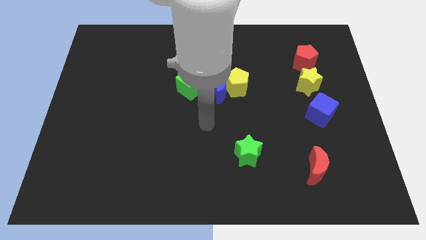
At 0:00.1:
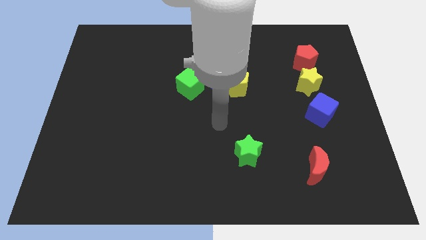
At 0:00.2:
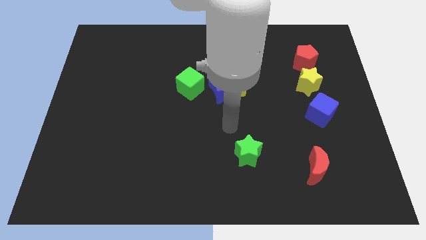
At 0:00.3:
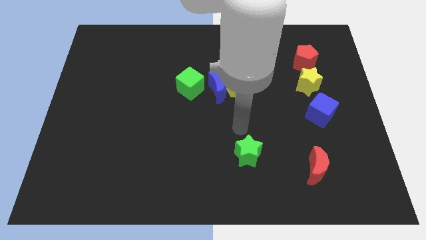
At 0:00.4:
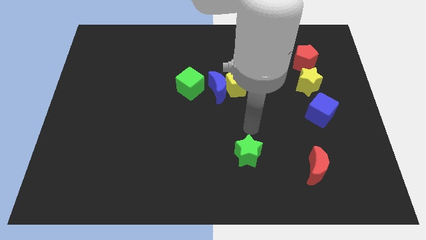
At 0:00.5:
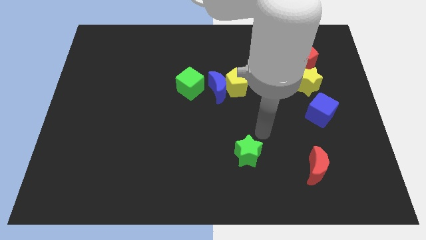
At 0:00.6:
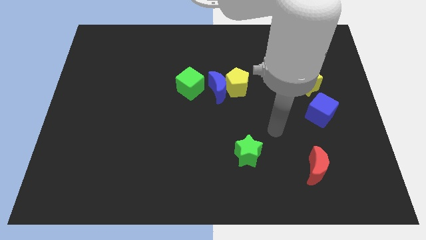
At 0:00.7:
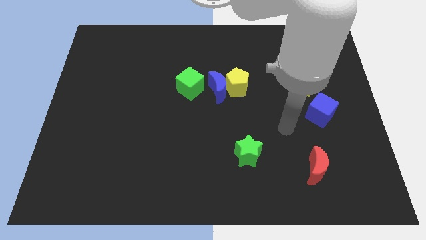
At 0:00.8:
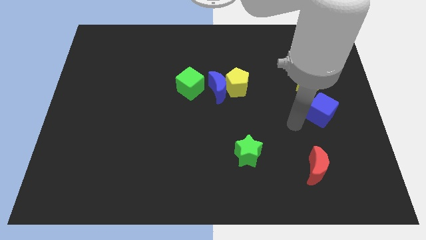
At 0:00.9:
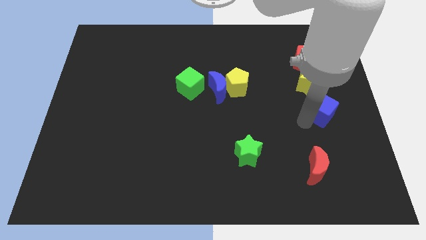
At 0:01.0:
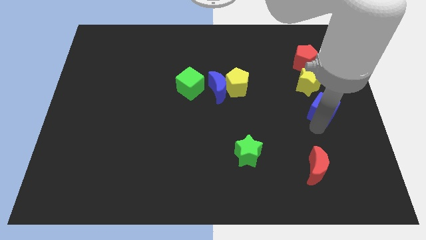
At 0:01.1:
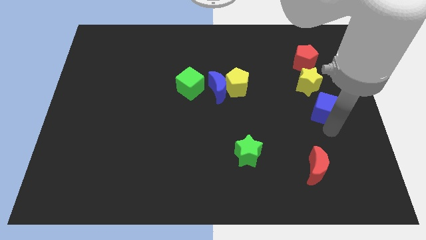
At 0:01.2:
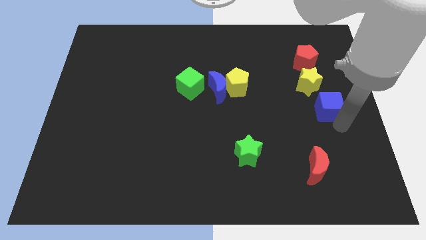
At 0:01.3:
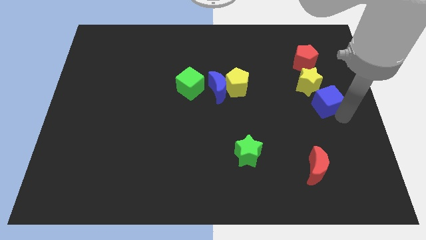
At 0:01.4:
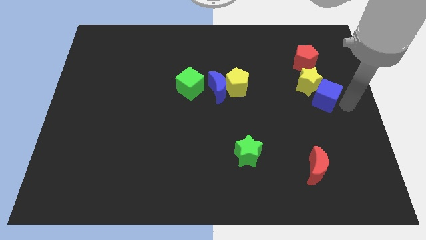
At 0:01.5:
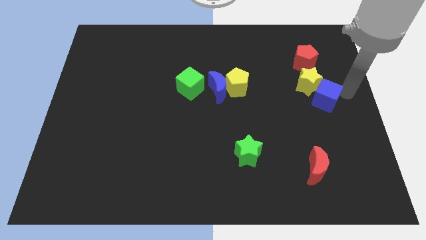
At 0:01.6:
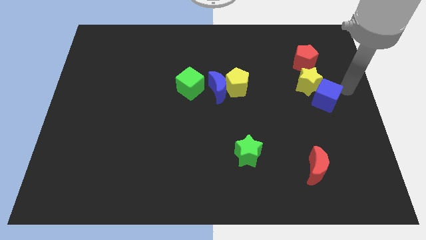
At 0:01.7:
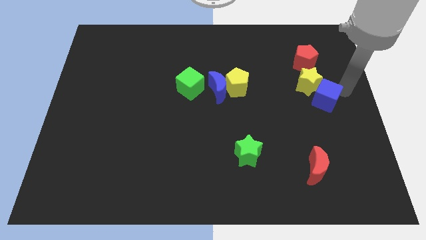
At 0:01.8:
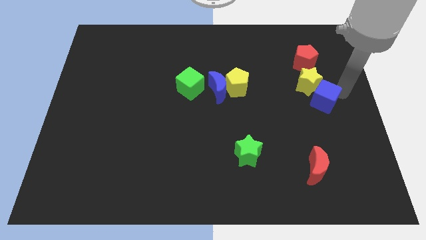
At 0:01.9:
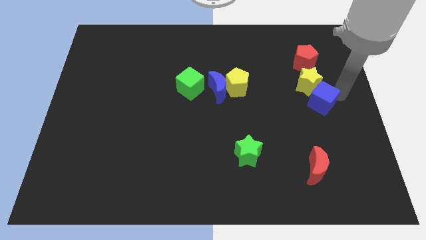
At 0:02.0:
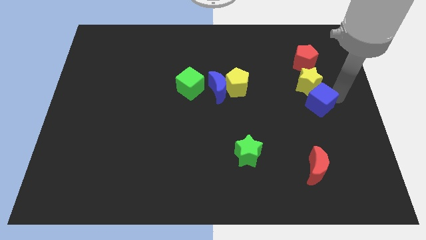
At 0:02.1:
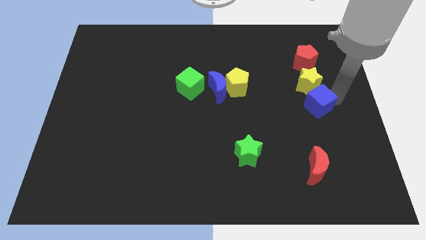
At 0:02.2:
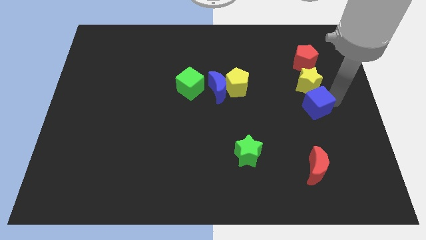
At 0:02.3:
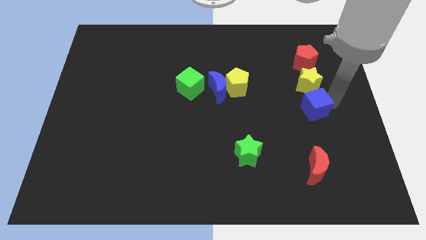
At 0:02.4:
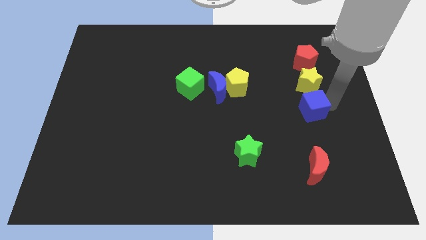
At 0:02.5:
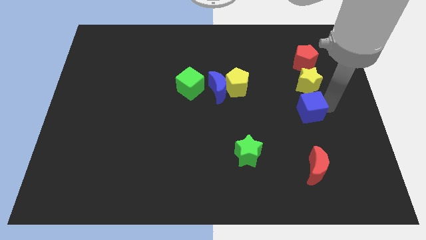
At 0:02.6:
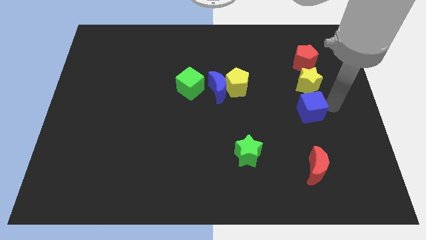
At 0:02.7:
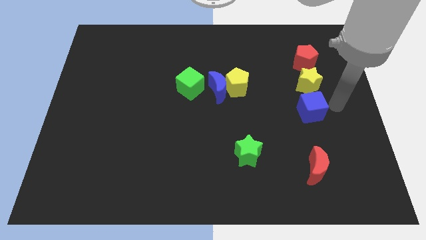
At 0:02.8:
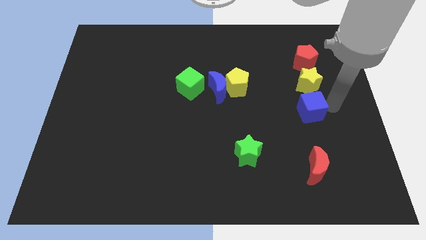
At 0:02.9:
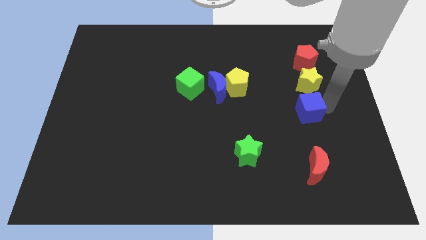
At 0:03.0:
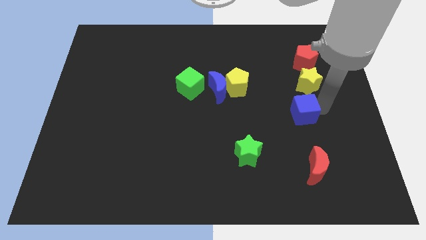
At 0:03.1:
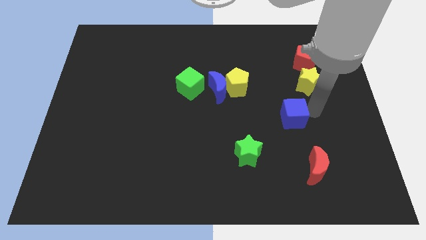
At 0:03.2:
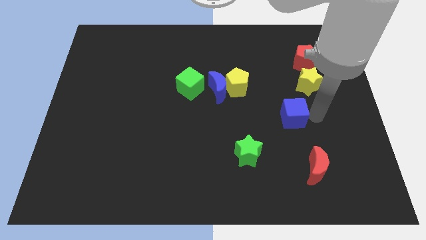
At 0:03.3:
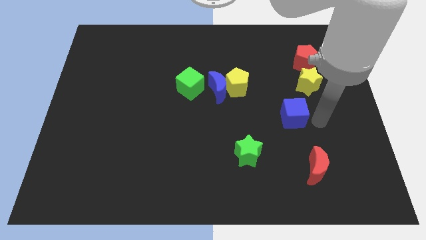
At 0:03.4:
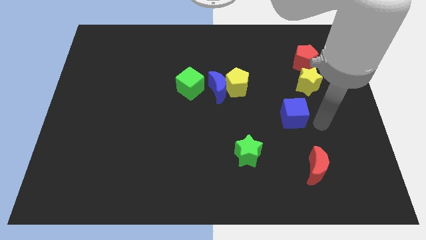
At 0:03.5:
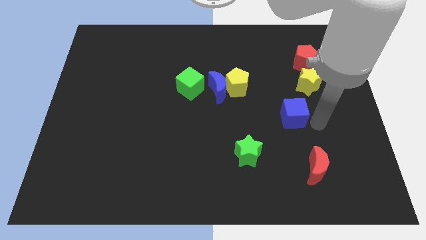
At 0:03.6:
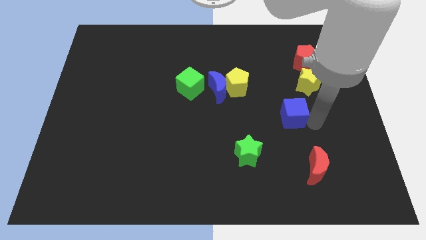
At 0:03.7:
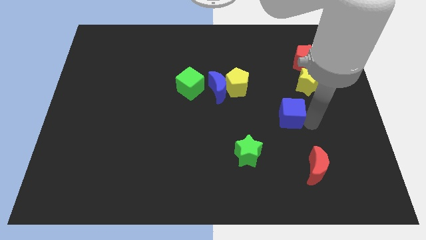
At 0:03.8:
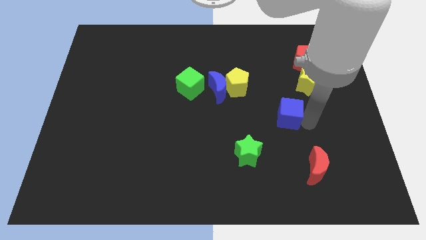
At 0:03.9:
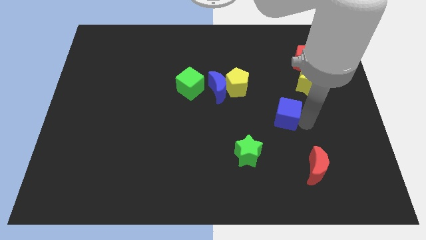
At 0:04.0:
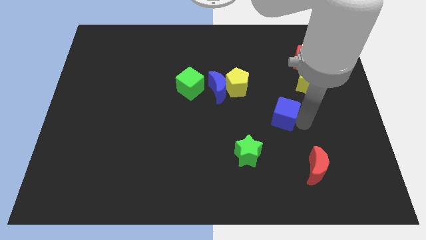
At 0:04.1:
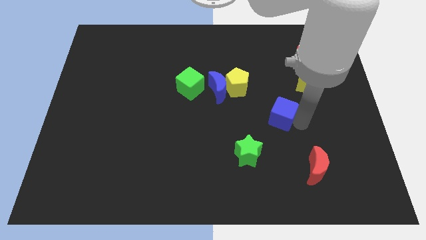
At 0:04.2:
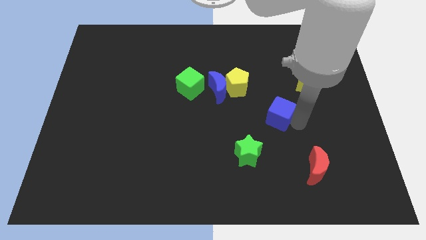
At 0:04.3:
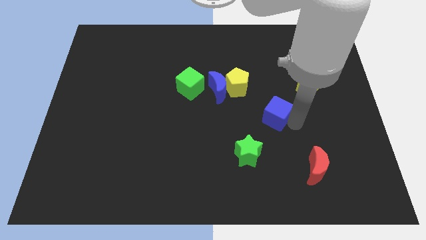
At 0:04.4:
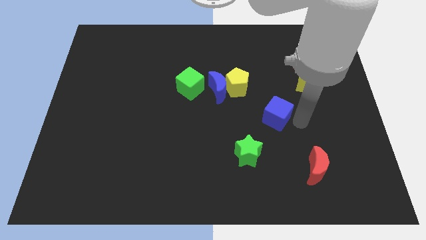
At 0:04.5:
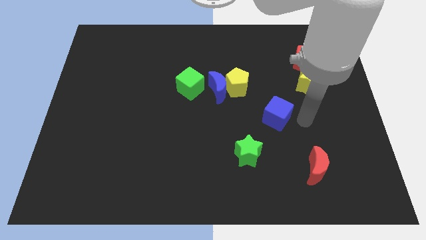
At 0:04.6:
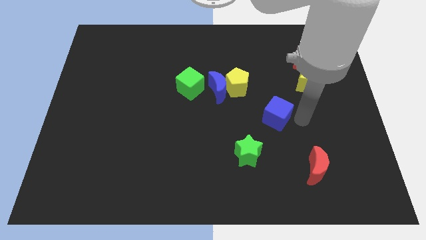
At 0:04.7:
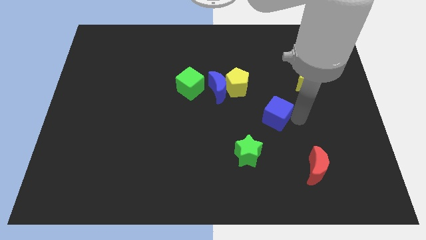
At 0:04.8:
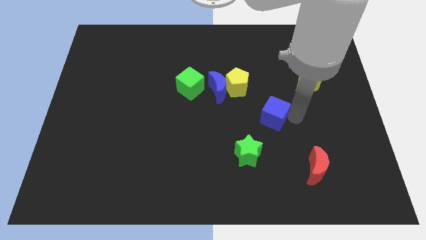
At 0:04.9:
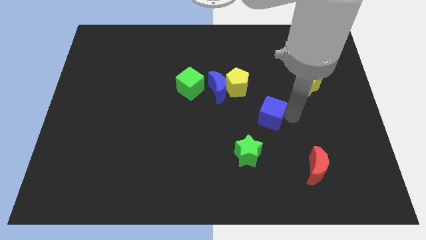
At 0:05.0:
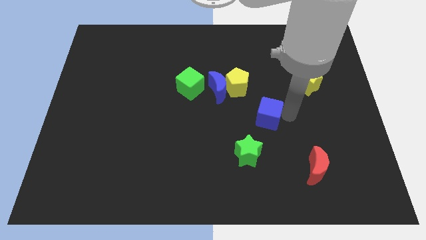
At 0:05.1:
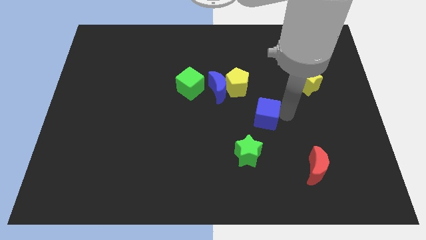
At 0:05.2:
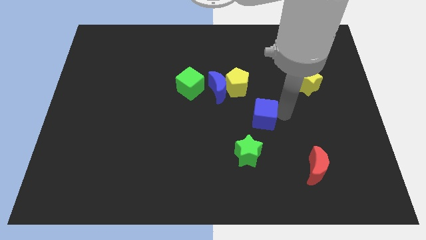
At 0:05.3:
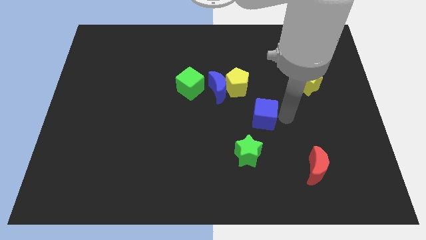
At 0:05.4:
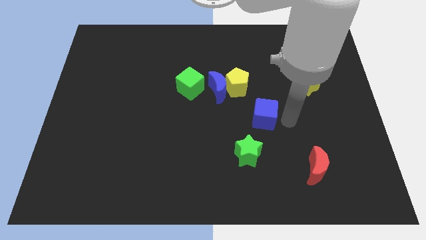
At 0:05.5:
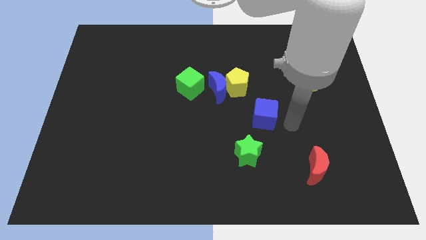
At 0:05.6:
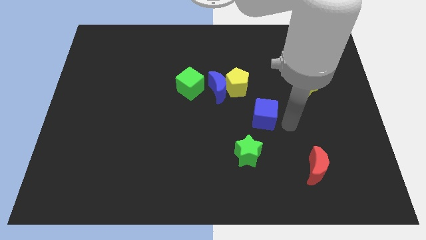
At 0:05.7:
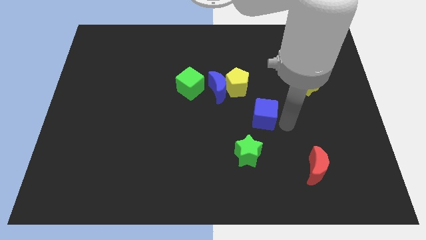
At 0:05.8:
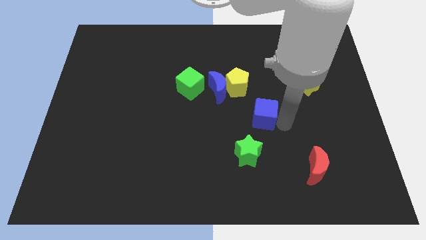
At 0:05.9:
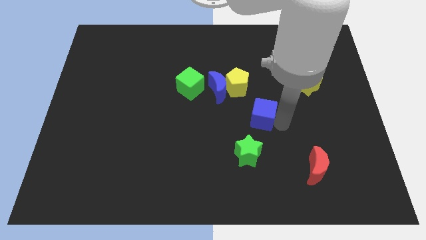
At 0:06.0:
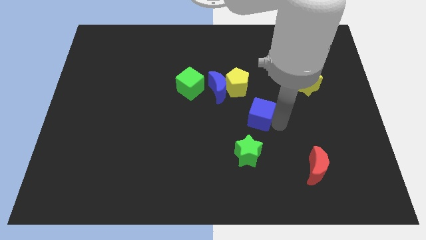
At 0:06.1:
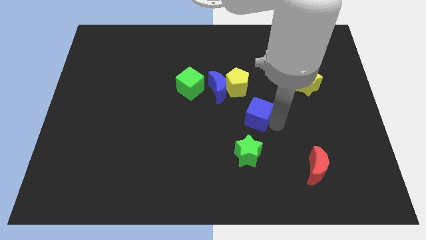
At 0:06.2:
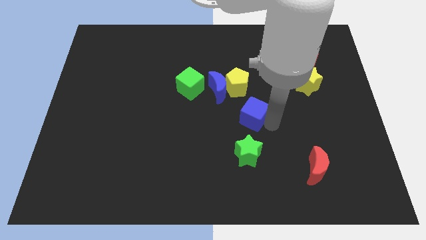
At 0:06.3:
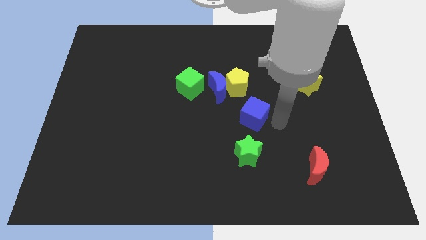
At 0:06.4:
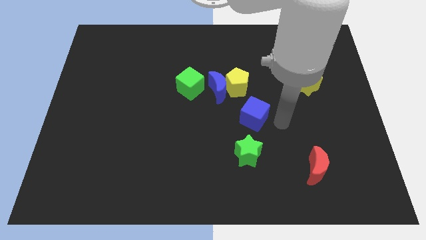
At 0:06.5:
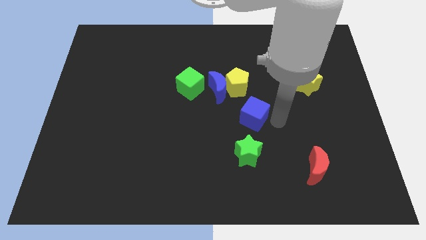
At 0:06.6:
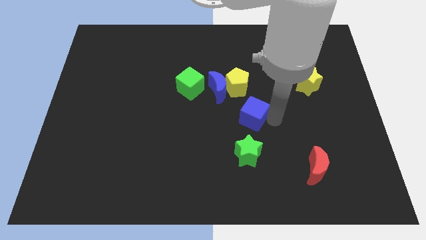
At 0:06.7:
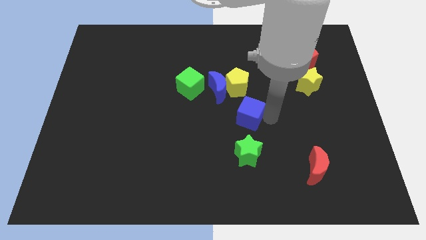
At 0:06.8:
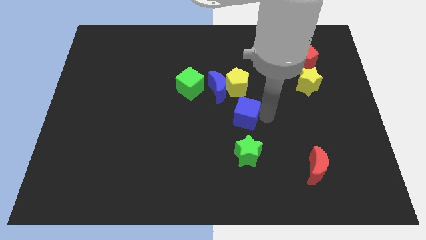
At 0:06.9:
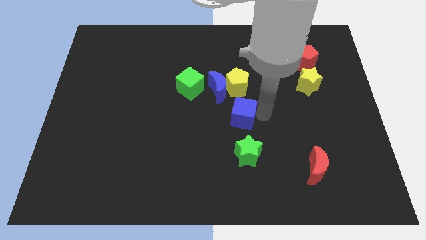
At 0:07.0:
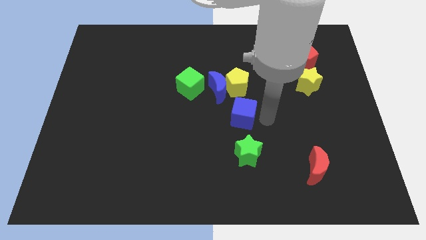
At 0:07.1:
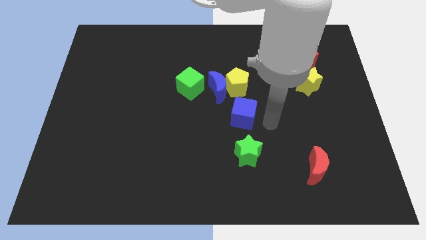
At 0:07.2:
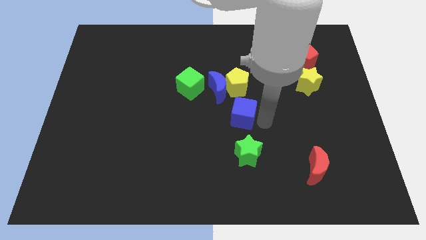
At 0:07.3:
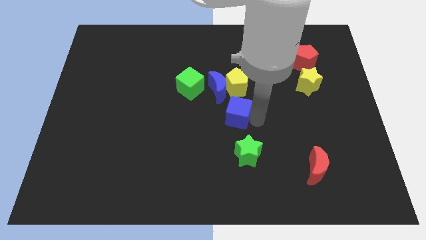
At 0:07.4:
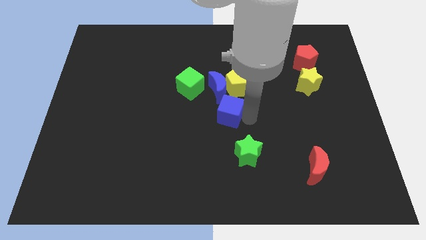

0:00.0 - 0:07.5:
push the blue cube to the left

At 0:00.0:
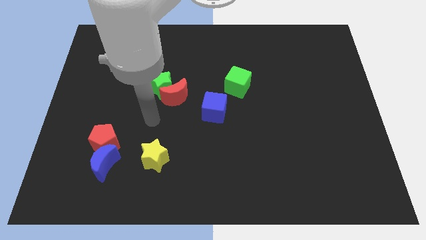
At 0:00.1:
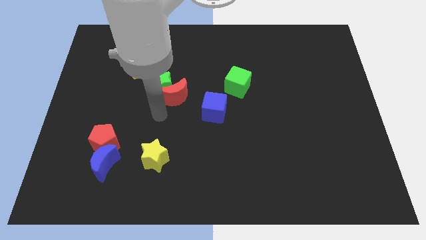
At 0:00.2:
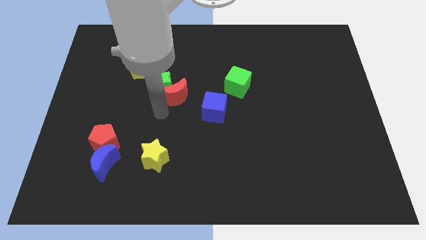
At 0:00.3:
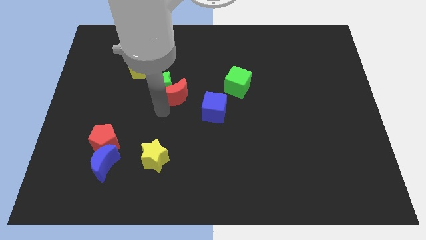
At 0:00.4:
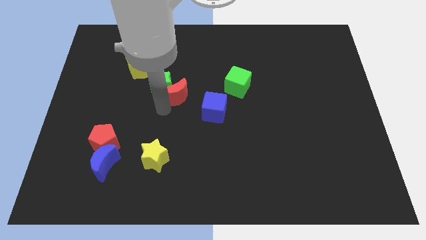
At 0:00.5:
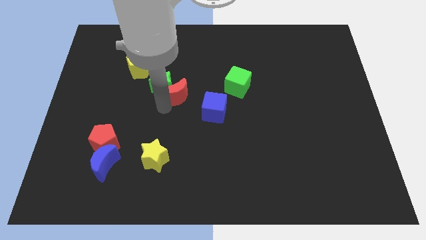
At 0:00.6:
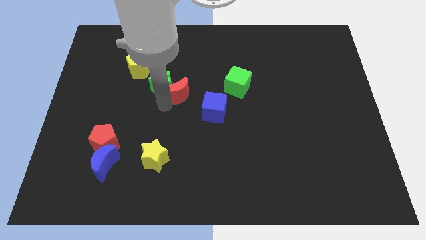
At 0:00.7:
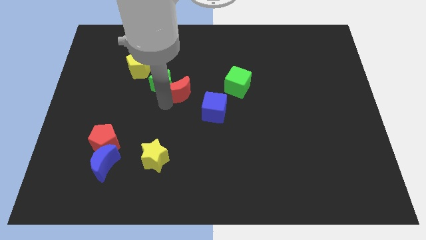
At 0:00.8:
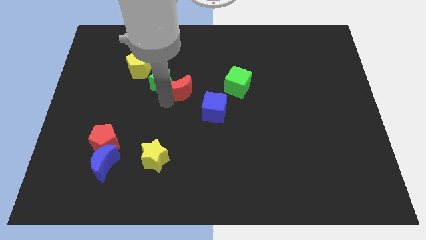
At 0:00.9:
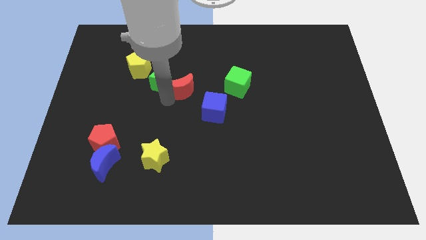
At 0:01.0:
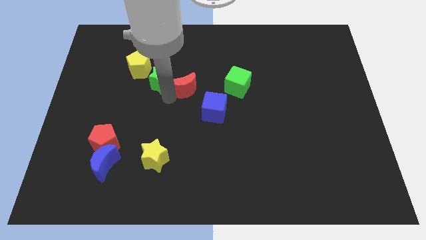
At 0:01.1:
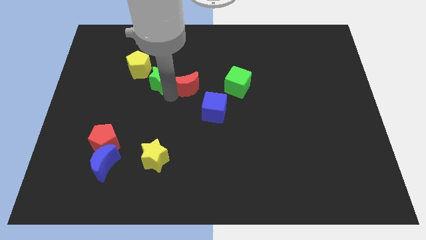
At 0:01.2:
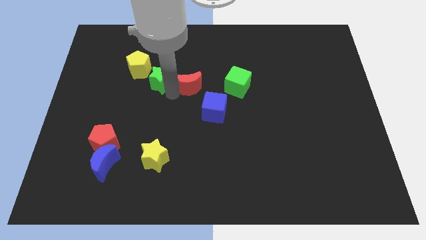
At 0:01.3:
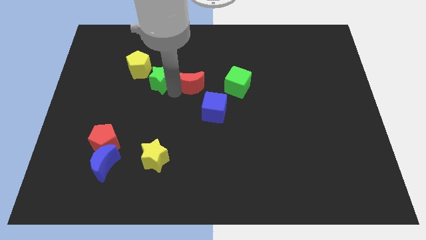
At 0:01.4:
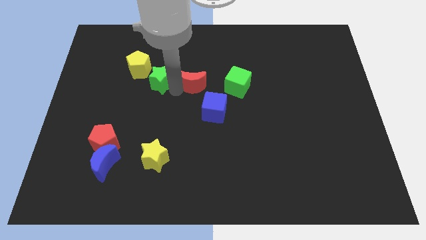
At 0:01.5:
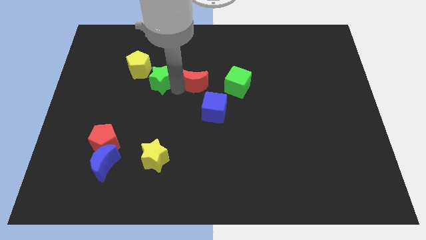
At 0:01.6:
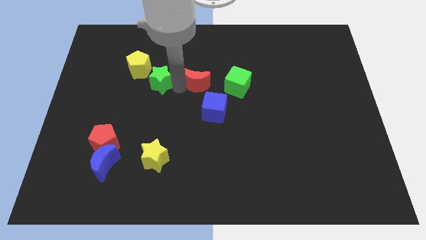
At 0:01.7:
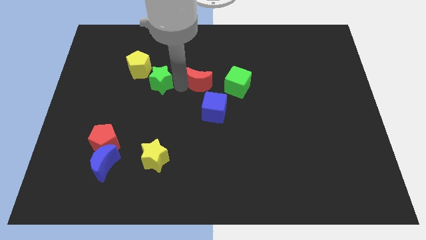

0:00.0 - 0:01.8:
move the red moon upwards and to the right slightly
